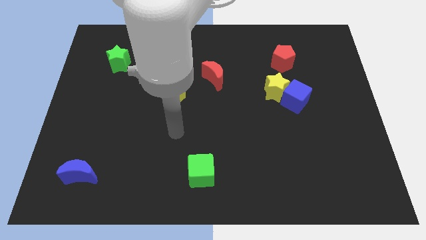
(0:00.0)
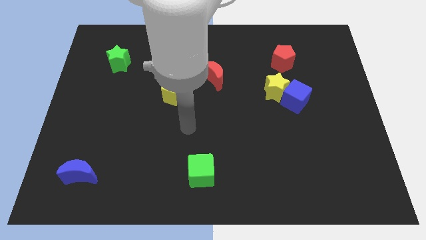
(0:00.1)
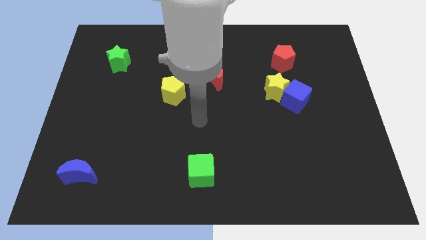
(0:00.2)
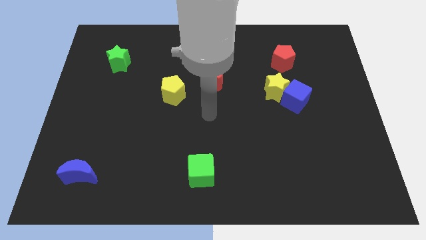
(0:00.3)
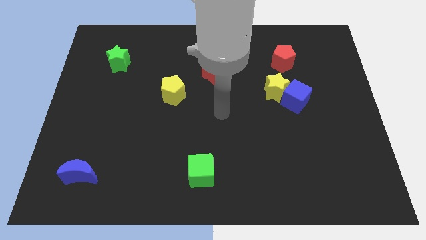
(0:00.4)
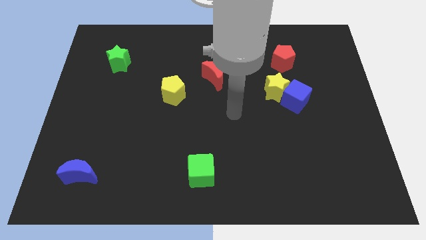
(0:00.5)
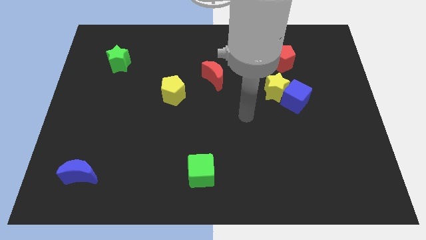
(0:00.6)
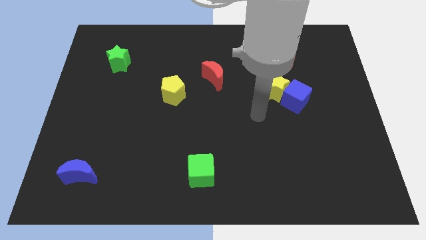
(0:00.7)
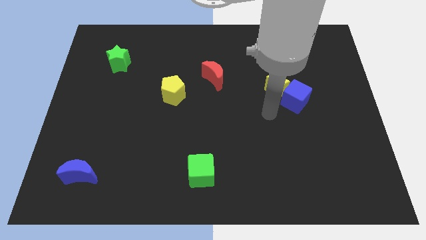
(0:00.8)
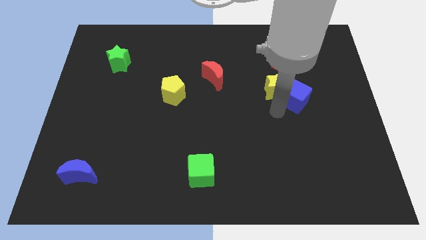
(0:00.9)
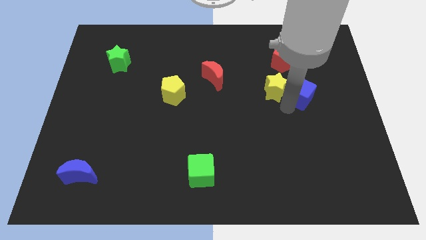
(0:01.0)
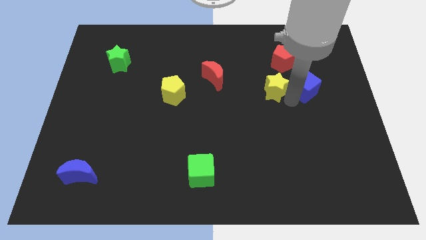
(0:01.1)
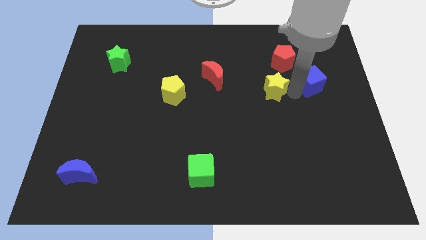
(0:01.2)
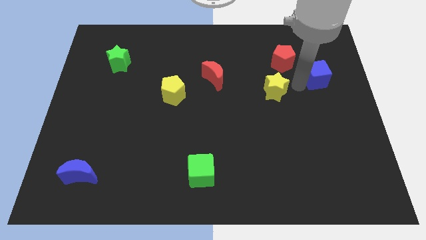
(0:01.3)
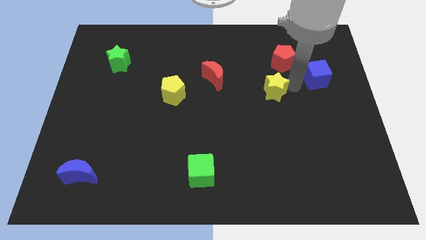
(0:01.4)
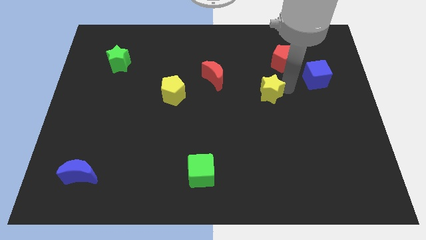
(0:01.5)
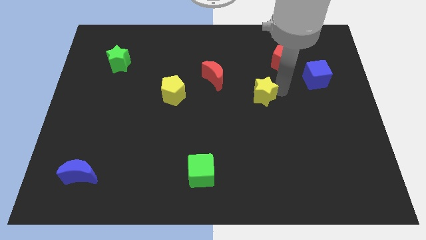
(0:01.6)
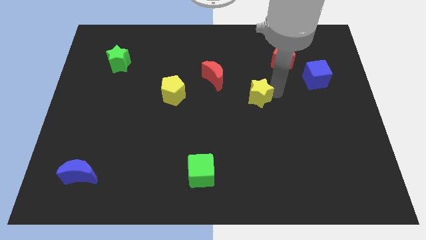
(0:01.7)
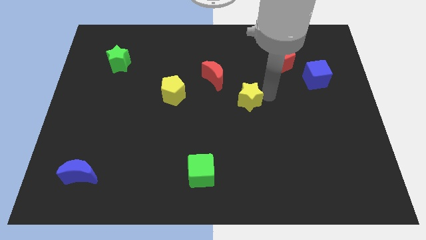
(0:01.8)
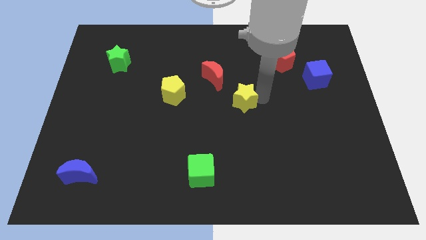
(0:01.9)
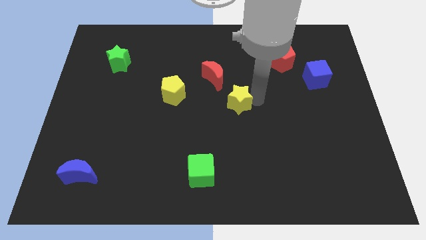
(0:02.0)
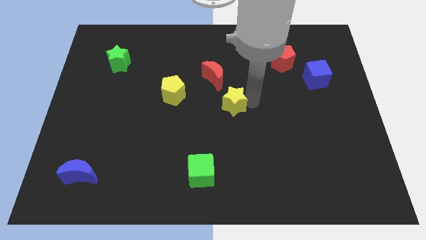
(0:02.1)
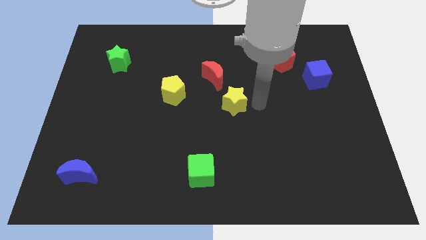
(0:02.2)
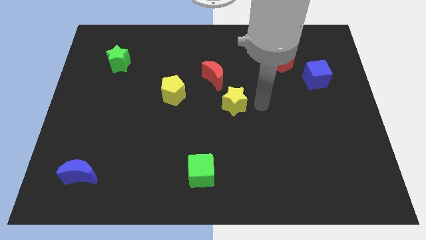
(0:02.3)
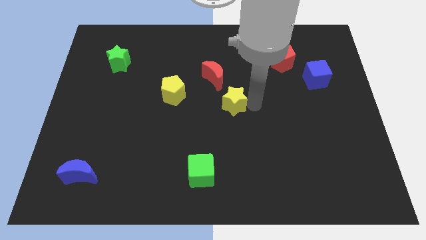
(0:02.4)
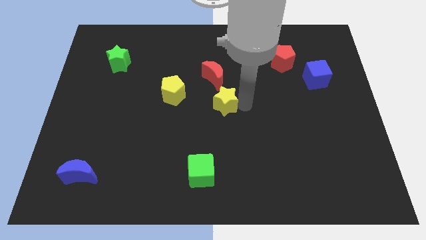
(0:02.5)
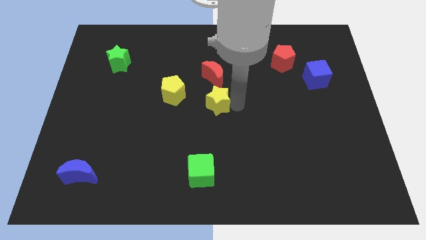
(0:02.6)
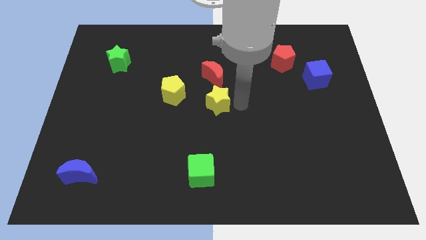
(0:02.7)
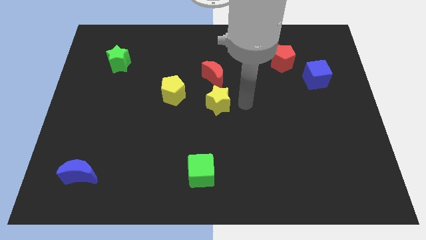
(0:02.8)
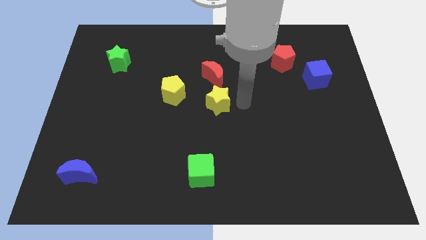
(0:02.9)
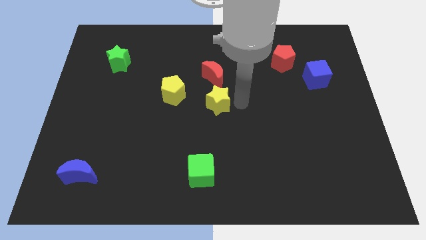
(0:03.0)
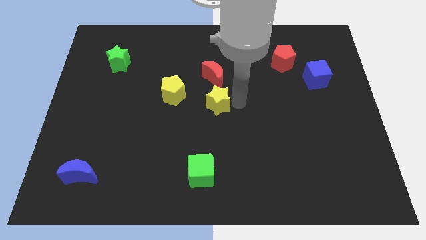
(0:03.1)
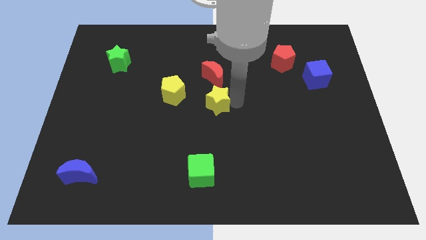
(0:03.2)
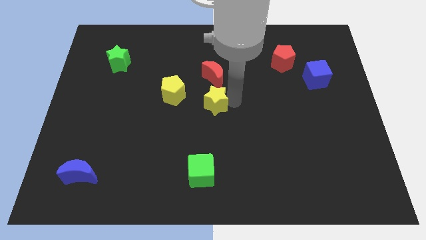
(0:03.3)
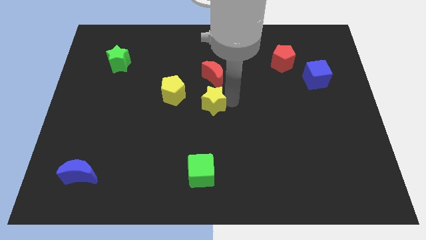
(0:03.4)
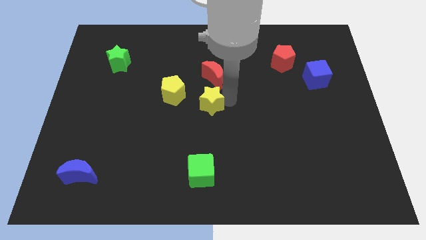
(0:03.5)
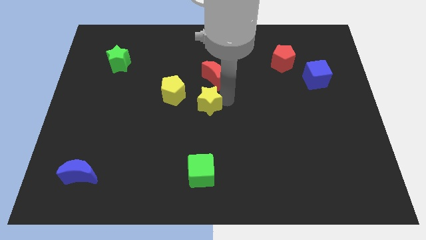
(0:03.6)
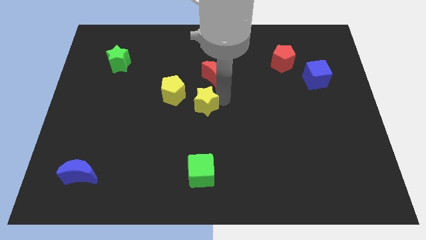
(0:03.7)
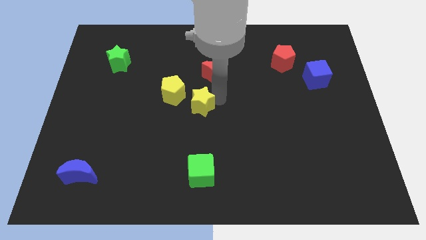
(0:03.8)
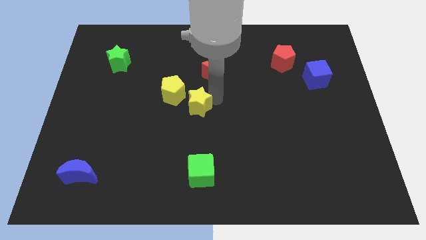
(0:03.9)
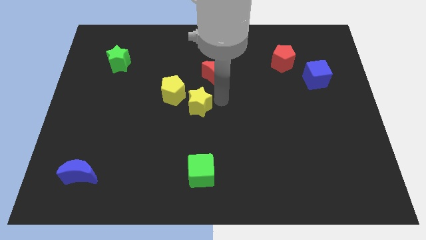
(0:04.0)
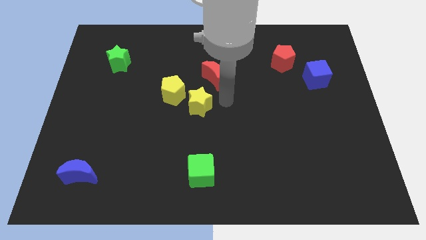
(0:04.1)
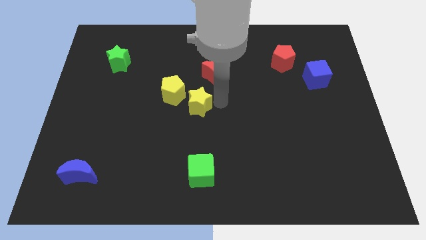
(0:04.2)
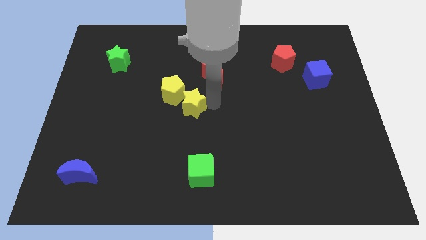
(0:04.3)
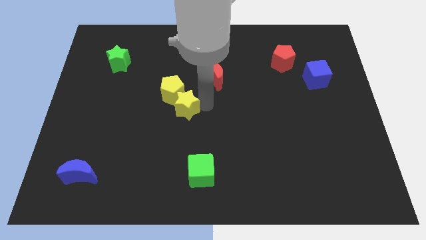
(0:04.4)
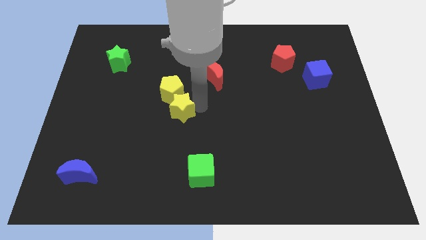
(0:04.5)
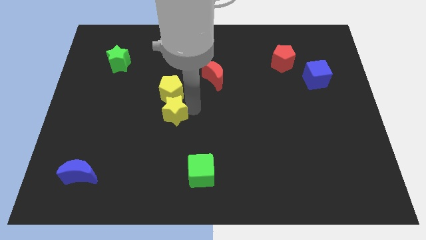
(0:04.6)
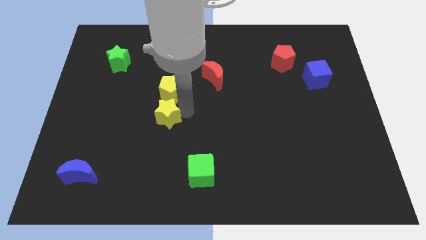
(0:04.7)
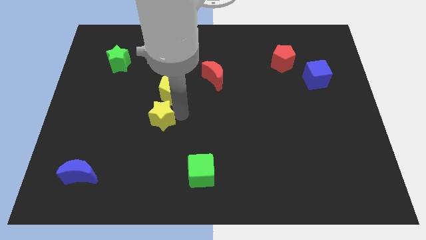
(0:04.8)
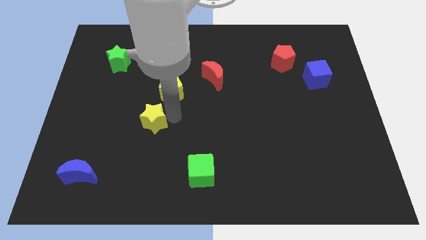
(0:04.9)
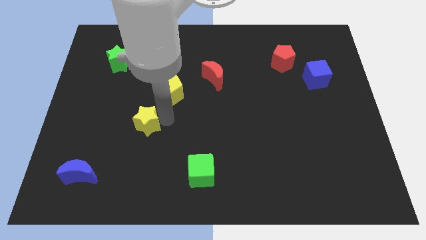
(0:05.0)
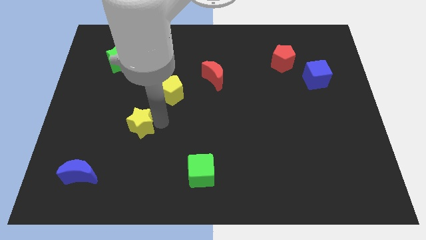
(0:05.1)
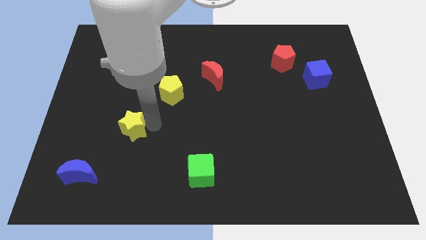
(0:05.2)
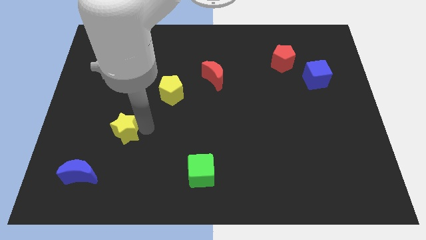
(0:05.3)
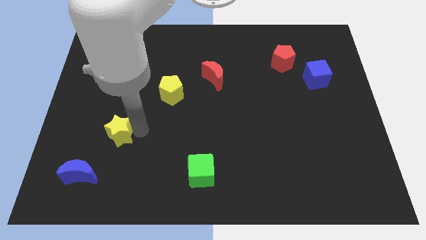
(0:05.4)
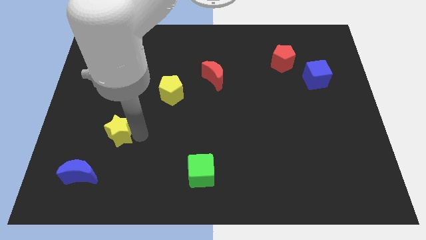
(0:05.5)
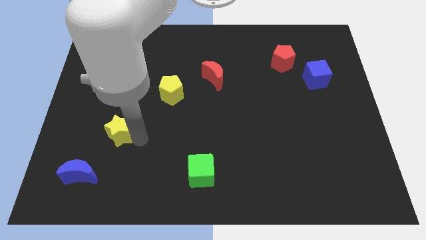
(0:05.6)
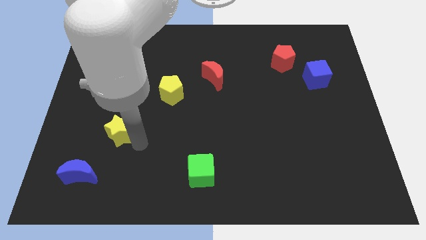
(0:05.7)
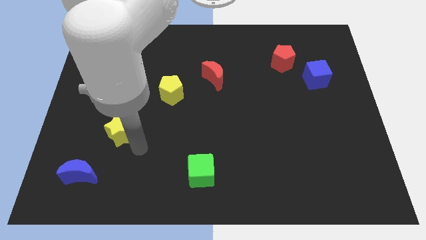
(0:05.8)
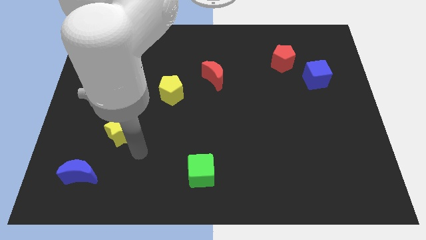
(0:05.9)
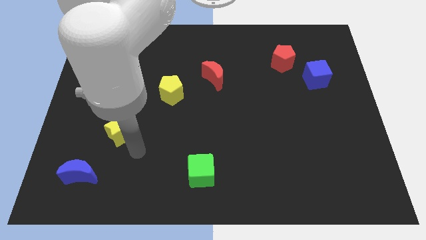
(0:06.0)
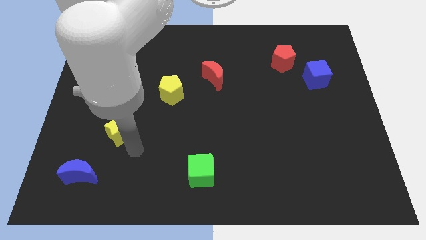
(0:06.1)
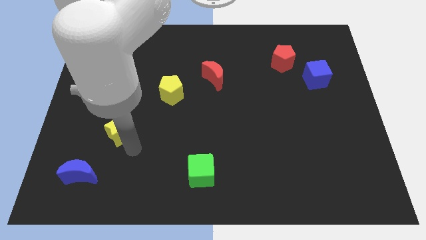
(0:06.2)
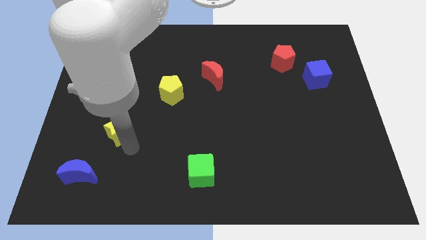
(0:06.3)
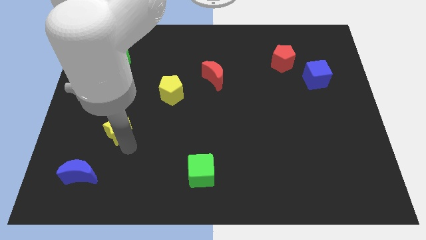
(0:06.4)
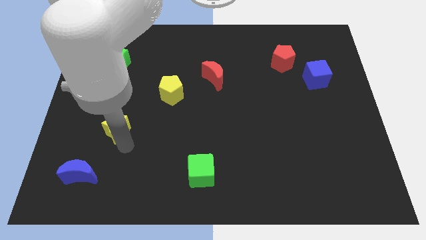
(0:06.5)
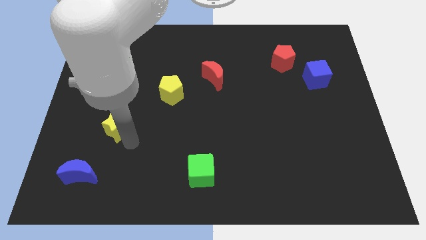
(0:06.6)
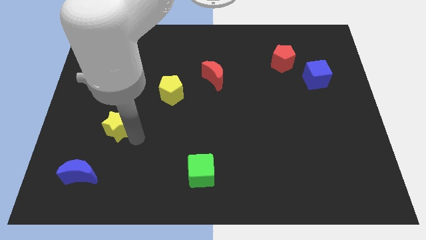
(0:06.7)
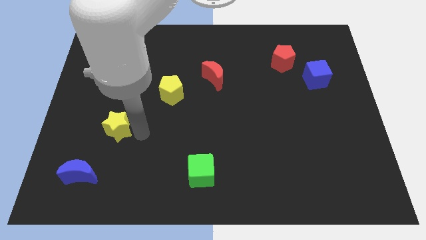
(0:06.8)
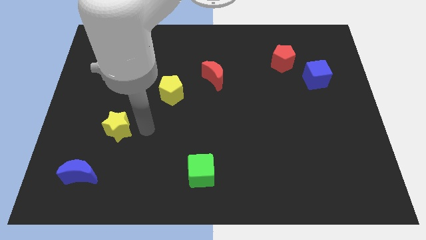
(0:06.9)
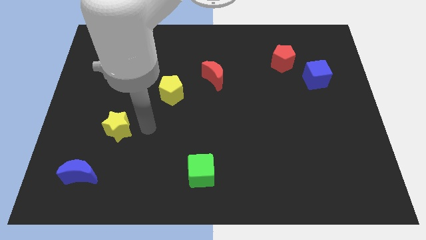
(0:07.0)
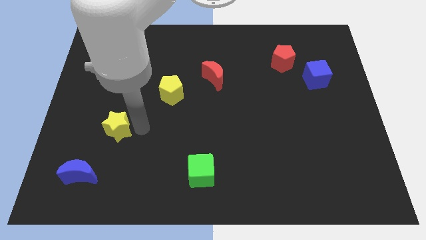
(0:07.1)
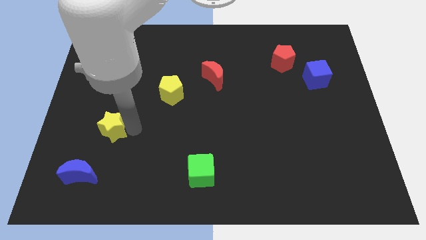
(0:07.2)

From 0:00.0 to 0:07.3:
put the yellow star to the top of the blue moon

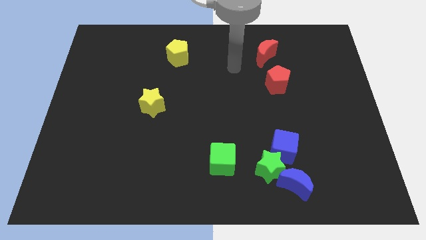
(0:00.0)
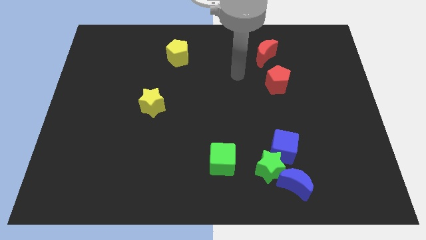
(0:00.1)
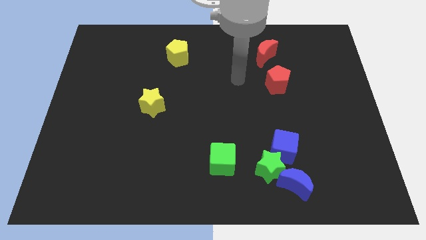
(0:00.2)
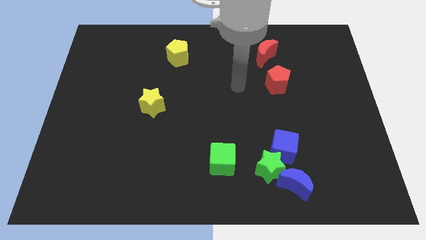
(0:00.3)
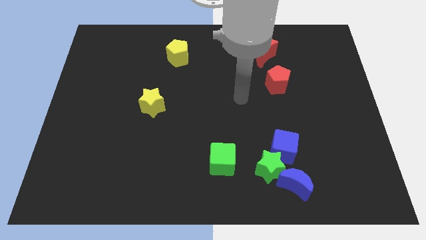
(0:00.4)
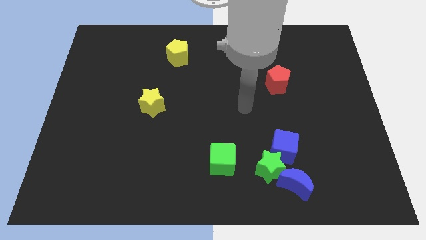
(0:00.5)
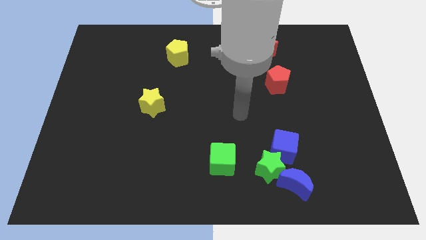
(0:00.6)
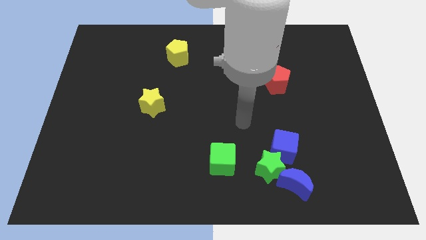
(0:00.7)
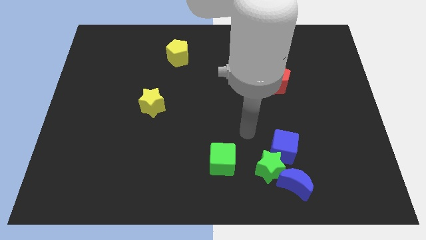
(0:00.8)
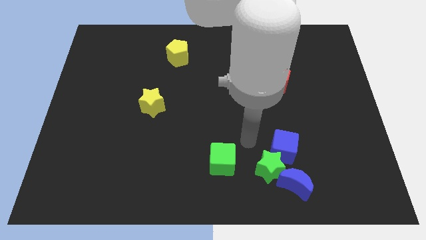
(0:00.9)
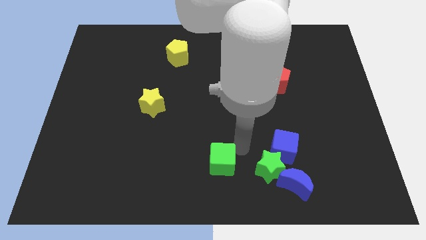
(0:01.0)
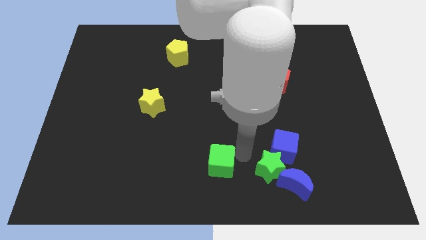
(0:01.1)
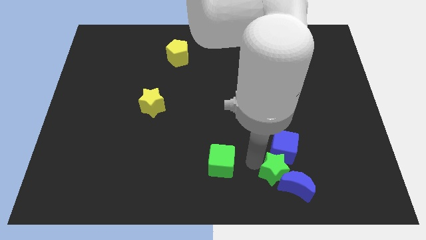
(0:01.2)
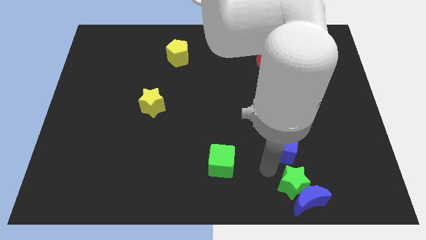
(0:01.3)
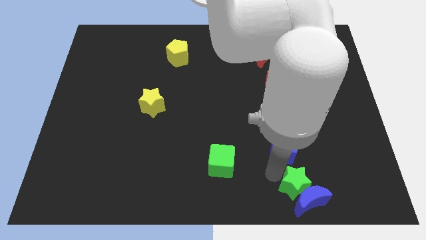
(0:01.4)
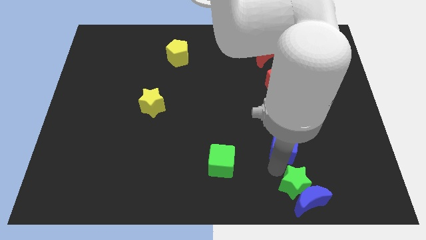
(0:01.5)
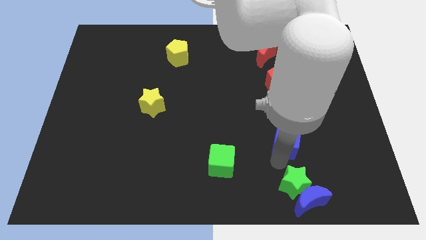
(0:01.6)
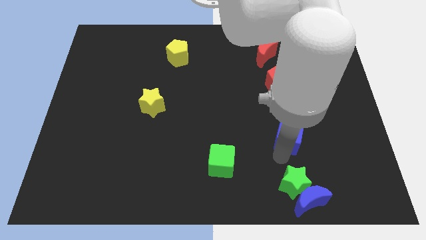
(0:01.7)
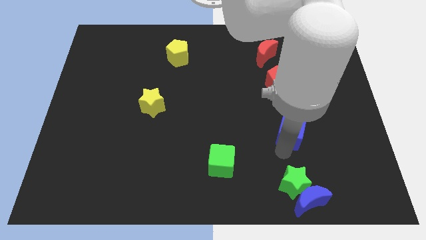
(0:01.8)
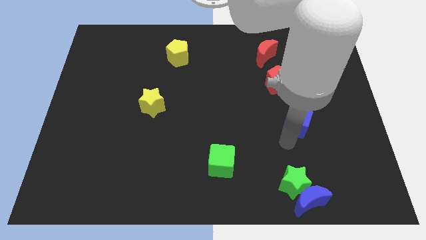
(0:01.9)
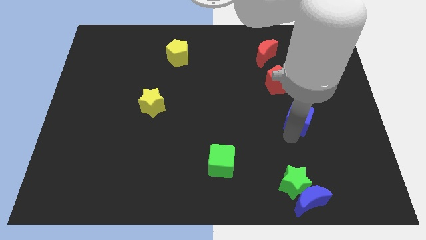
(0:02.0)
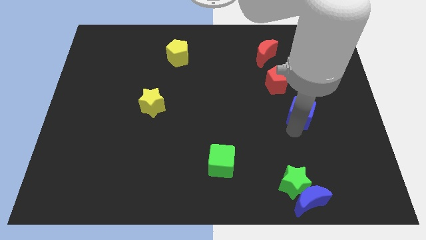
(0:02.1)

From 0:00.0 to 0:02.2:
put the blue cube to the bottom right side of the red pentagon
